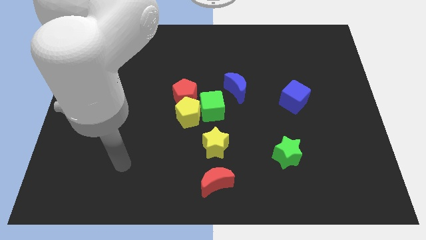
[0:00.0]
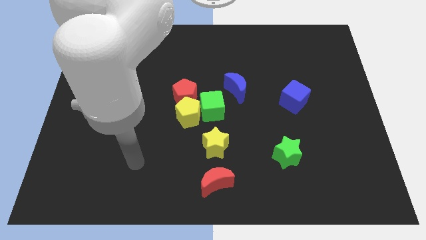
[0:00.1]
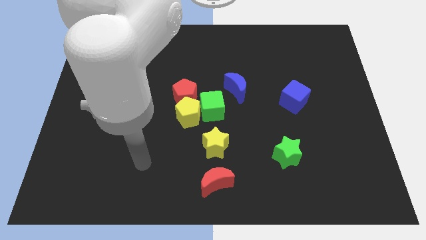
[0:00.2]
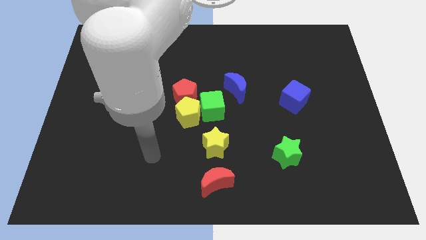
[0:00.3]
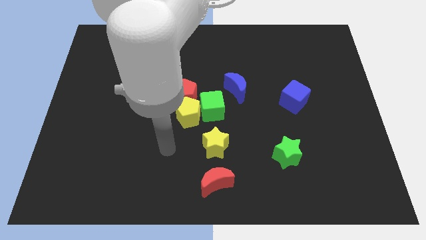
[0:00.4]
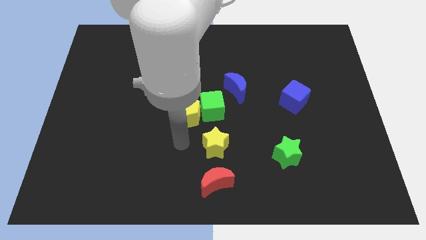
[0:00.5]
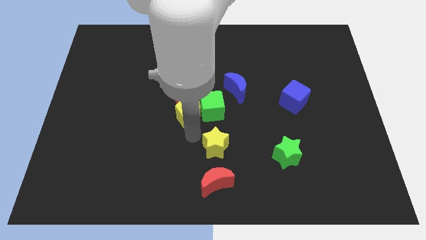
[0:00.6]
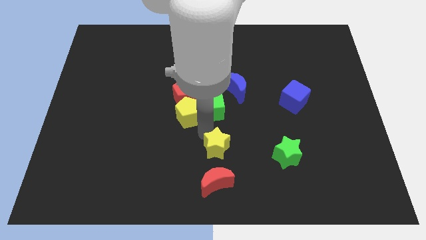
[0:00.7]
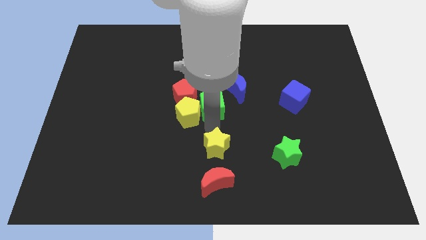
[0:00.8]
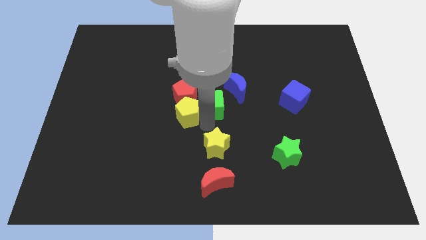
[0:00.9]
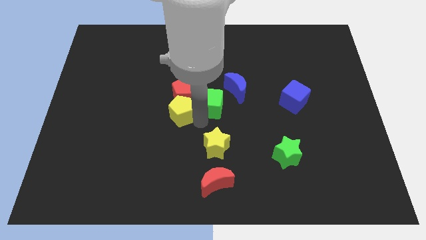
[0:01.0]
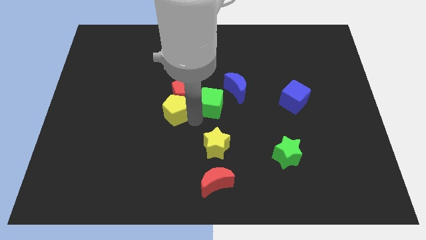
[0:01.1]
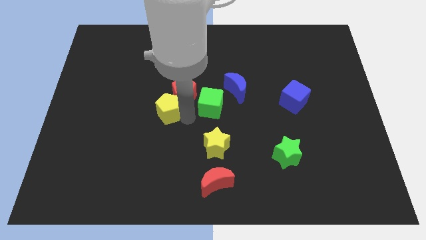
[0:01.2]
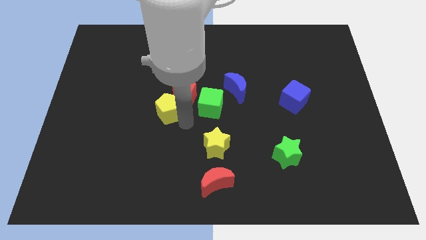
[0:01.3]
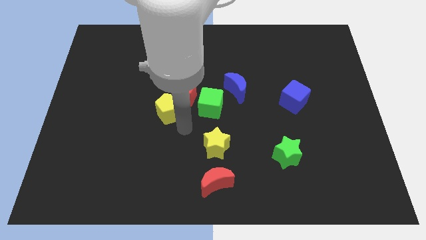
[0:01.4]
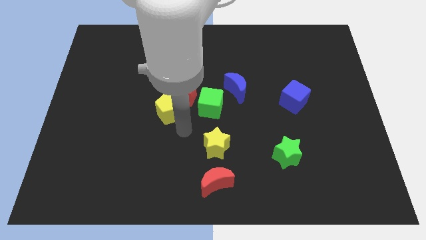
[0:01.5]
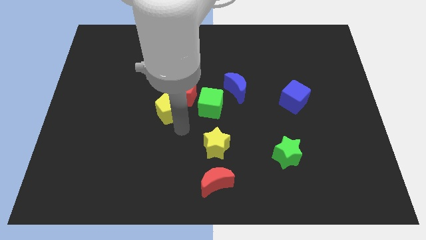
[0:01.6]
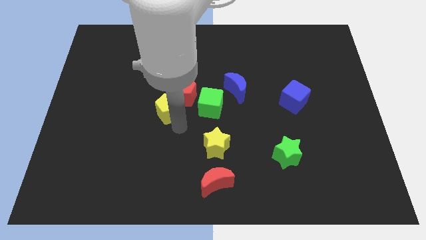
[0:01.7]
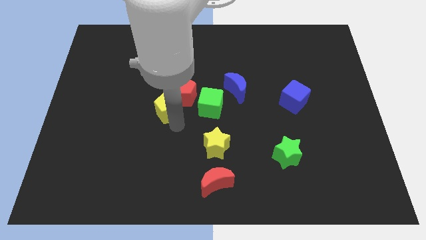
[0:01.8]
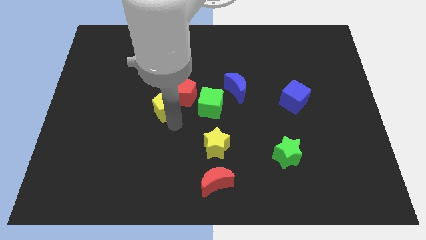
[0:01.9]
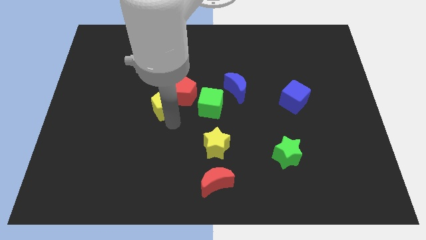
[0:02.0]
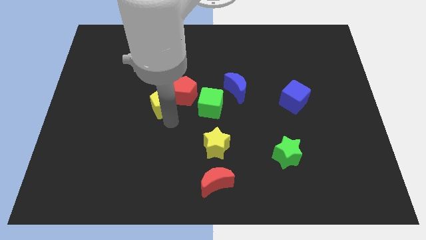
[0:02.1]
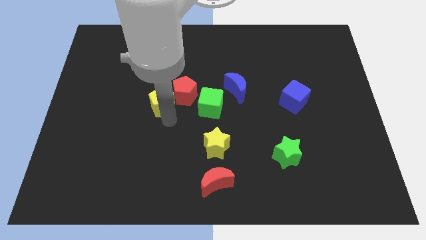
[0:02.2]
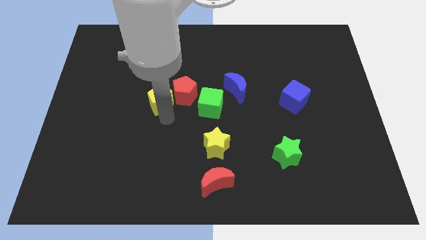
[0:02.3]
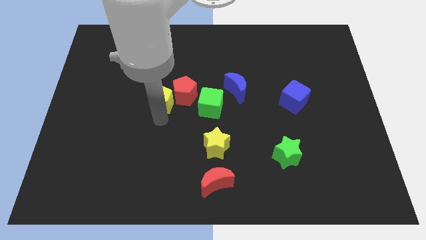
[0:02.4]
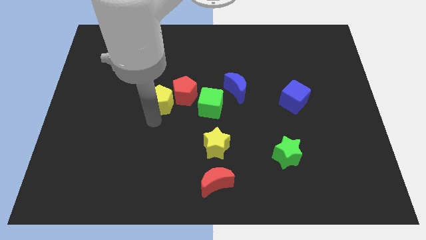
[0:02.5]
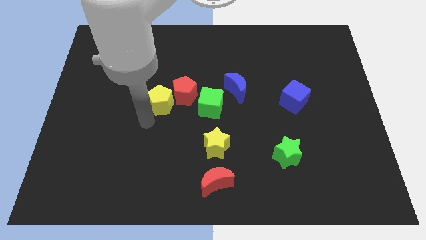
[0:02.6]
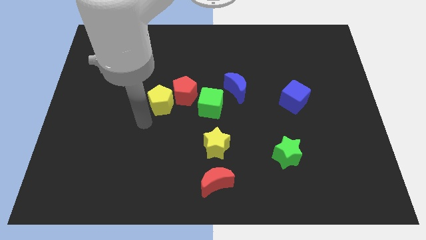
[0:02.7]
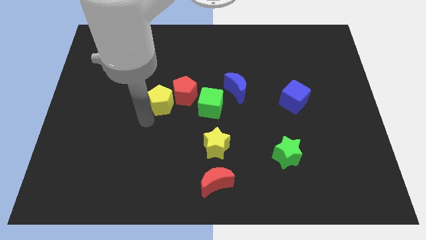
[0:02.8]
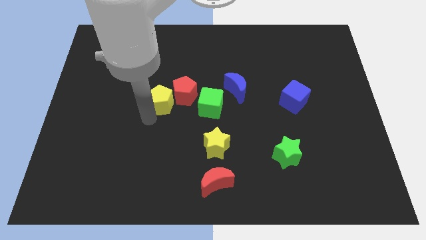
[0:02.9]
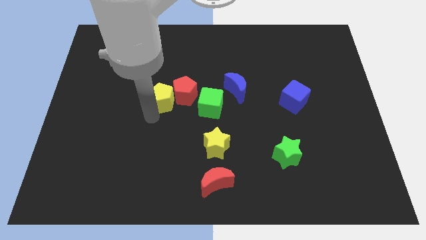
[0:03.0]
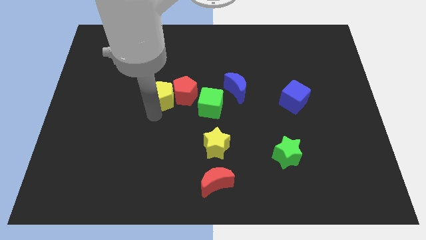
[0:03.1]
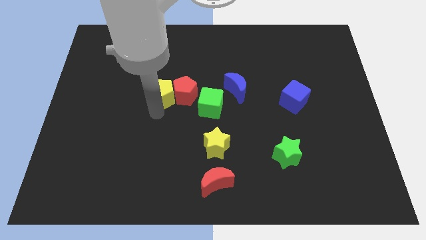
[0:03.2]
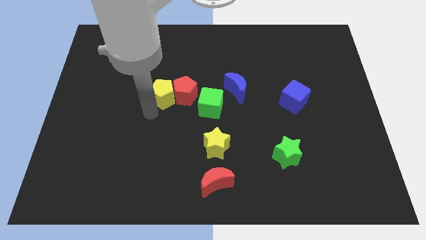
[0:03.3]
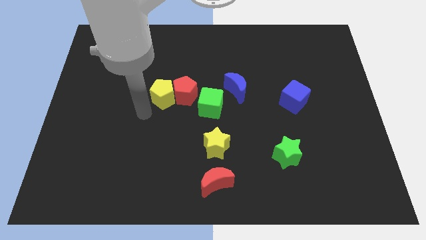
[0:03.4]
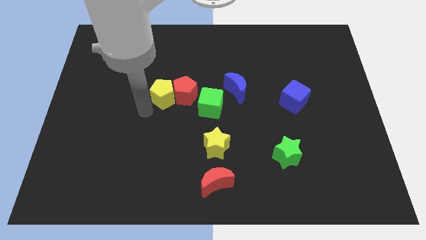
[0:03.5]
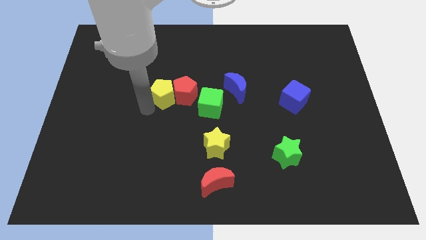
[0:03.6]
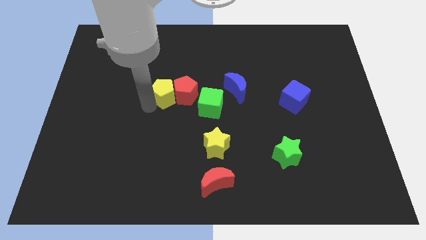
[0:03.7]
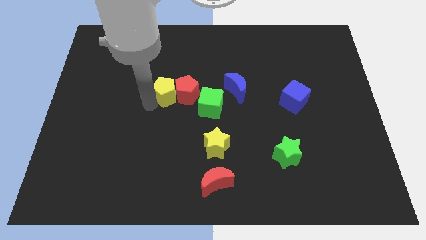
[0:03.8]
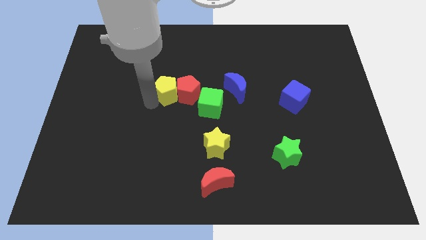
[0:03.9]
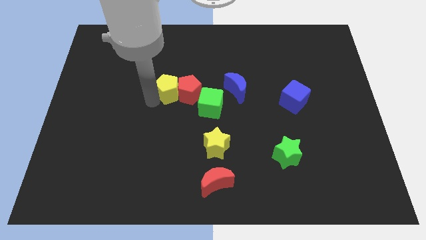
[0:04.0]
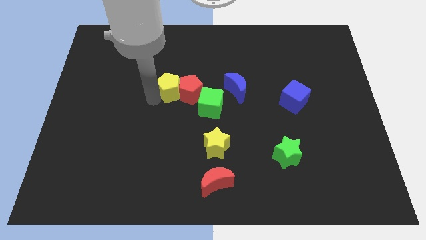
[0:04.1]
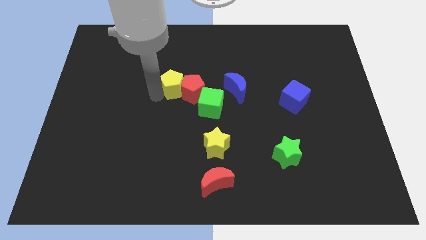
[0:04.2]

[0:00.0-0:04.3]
move the yellow pentagon up a little

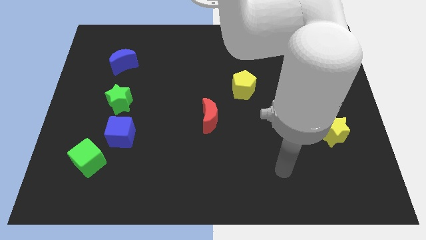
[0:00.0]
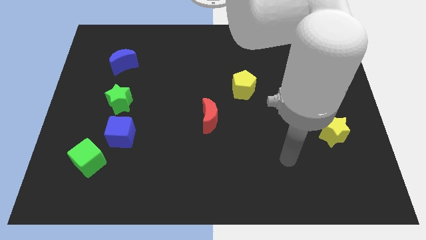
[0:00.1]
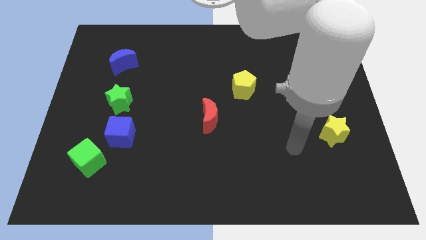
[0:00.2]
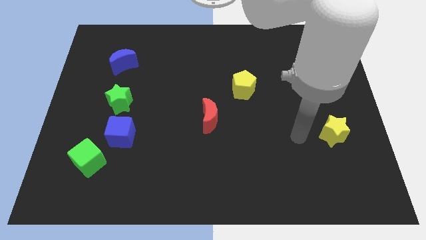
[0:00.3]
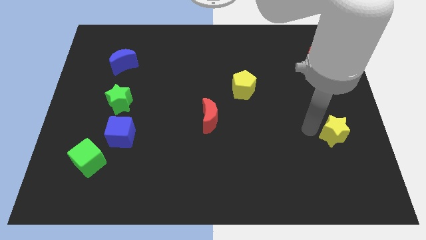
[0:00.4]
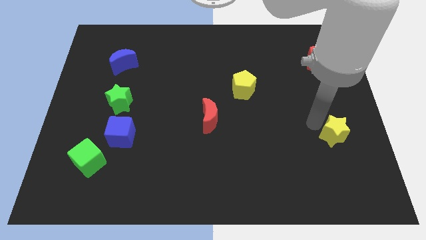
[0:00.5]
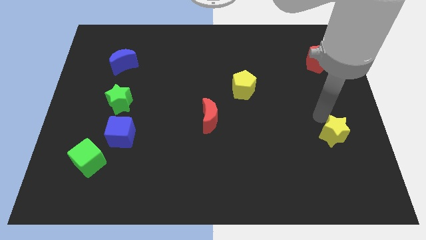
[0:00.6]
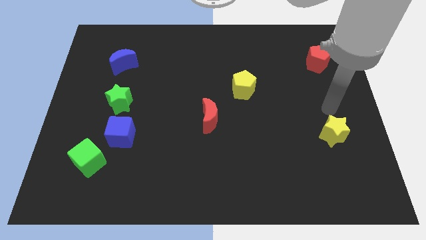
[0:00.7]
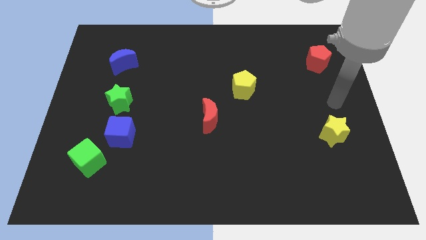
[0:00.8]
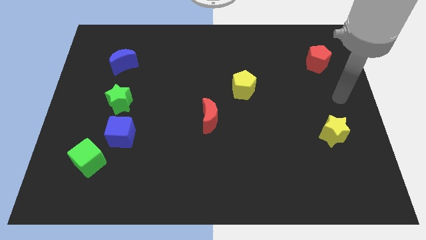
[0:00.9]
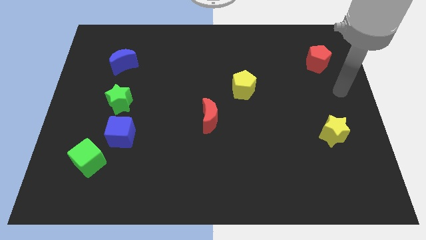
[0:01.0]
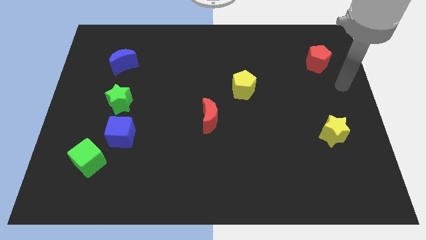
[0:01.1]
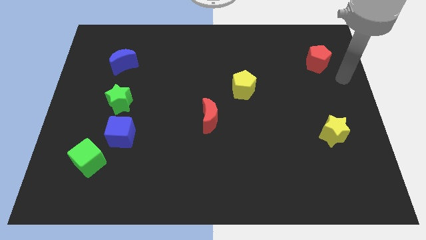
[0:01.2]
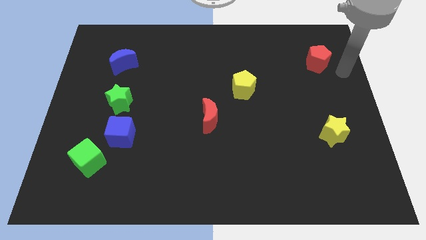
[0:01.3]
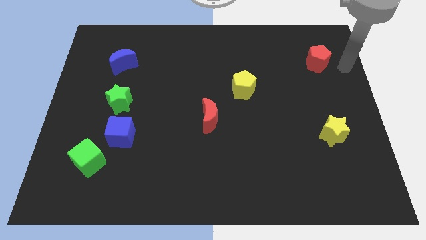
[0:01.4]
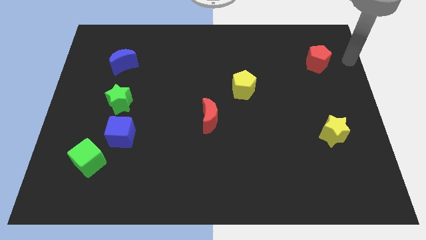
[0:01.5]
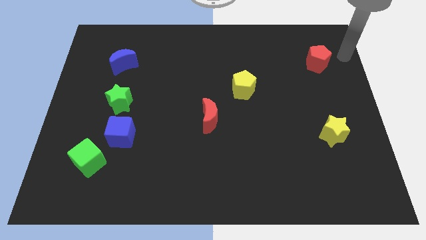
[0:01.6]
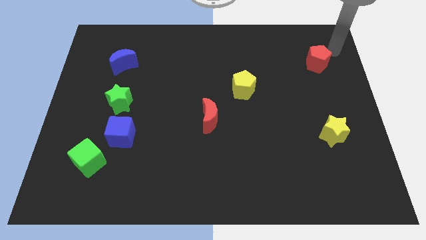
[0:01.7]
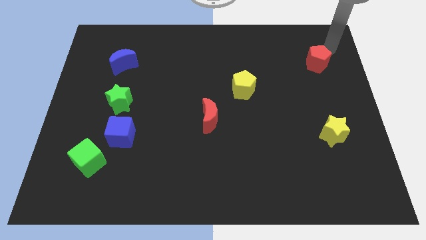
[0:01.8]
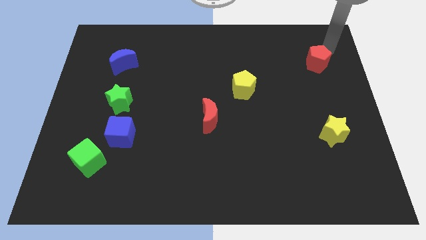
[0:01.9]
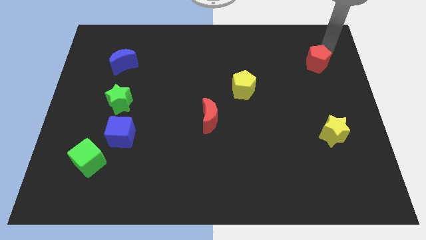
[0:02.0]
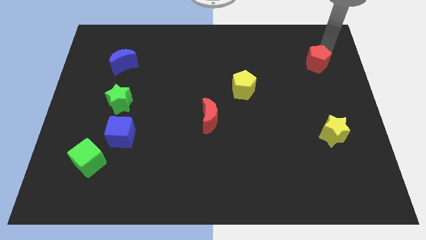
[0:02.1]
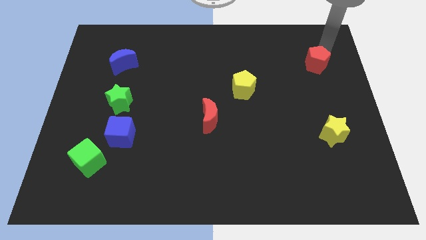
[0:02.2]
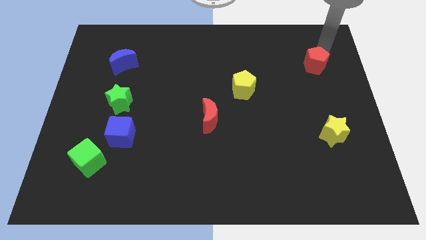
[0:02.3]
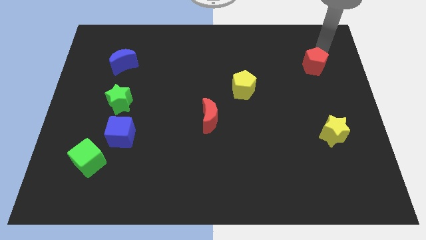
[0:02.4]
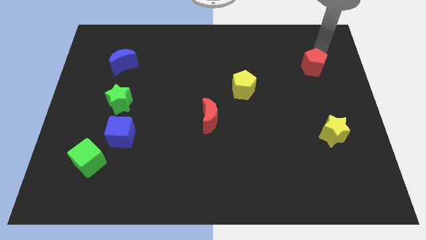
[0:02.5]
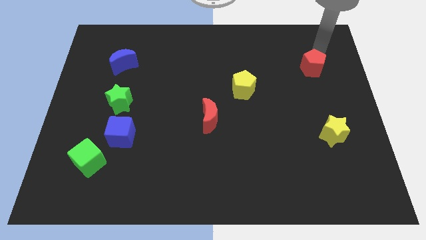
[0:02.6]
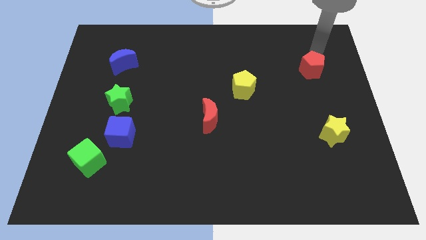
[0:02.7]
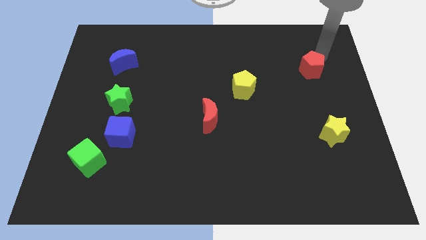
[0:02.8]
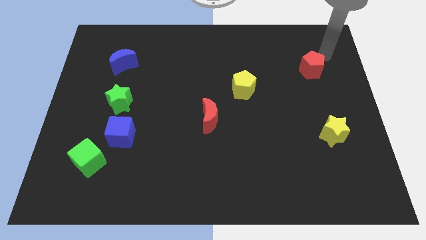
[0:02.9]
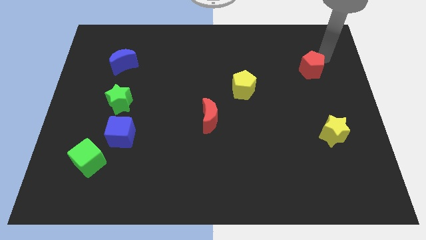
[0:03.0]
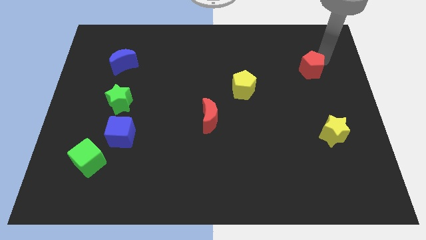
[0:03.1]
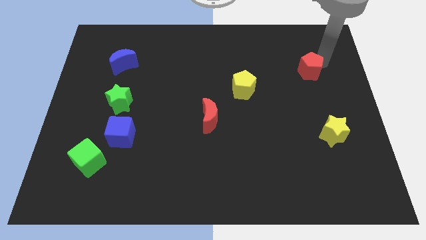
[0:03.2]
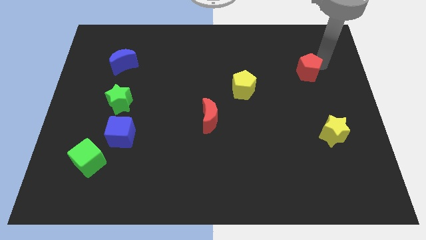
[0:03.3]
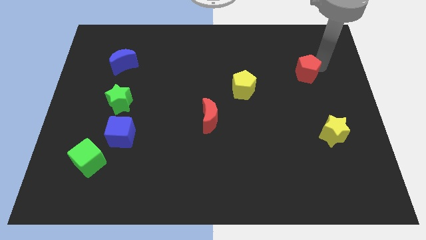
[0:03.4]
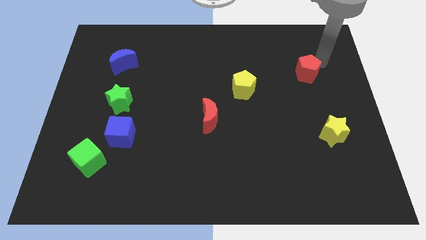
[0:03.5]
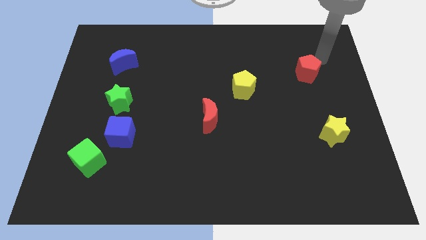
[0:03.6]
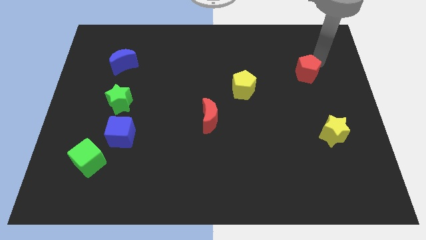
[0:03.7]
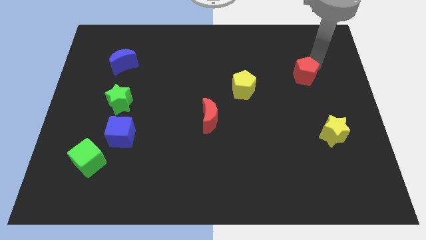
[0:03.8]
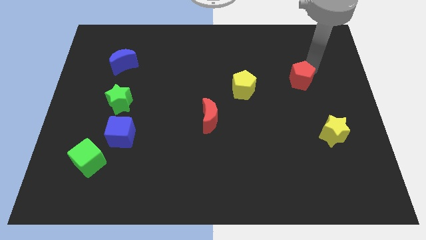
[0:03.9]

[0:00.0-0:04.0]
slide the red pentagon downwards and left somewhat

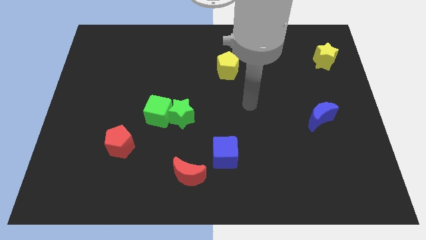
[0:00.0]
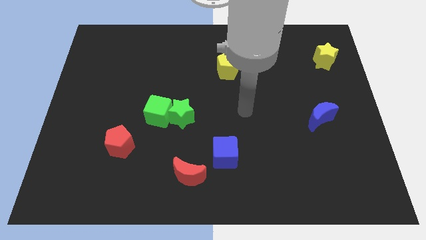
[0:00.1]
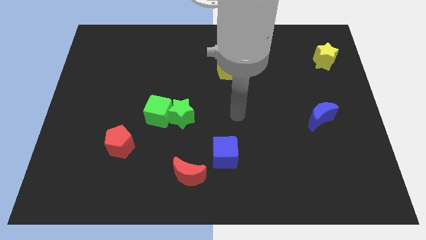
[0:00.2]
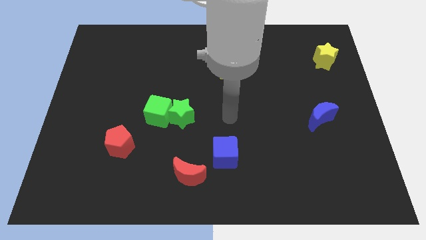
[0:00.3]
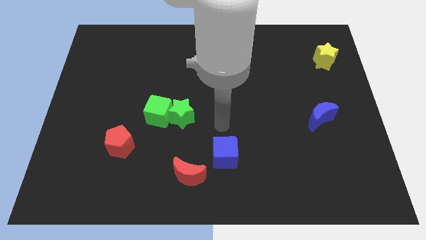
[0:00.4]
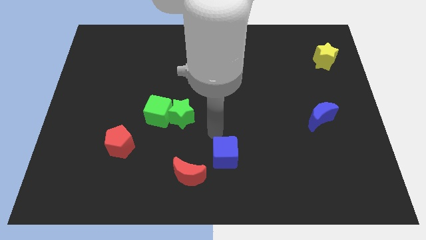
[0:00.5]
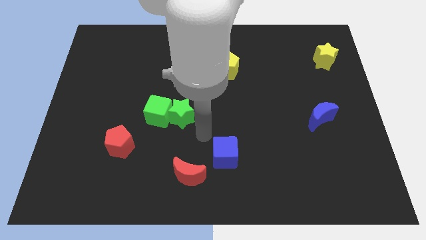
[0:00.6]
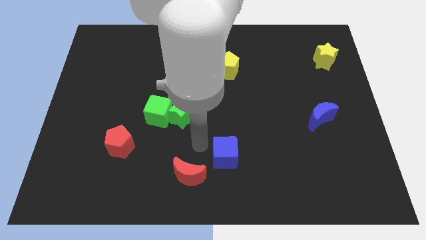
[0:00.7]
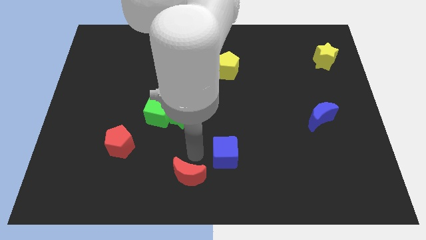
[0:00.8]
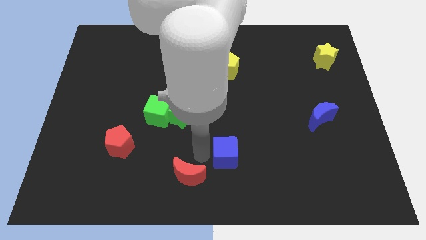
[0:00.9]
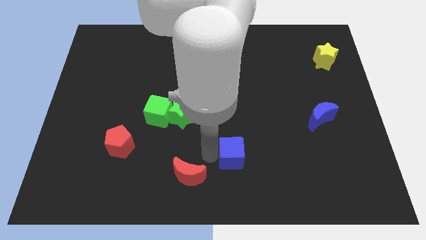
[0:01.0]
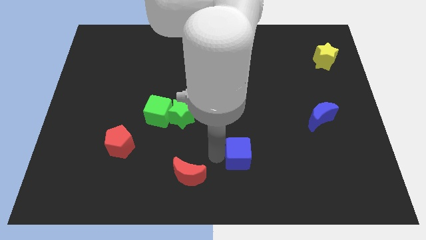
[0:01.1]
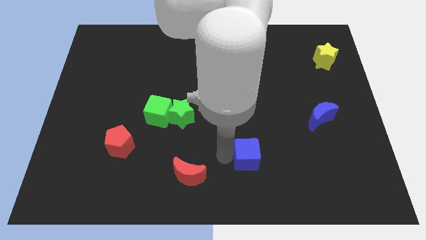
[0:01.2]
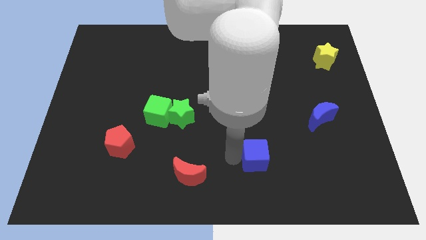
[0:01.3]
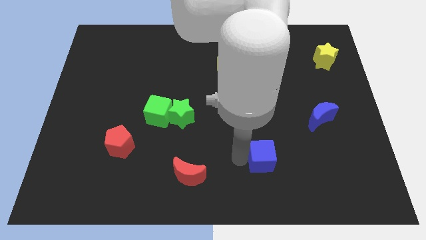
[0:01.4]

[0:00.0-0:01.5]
slightly slide the blue cube right
